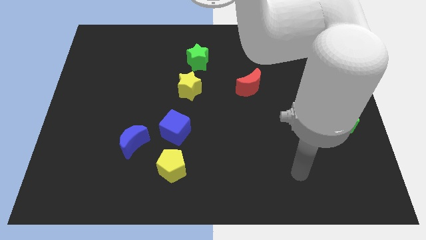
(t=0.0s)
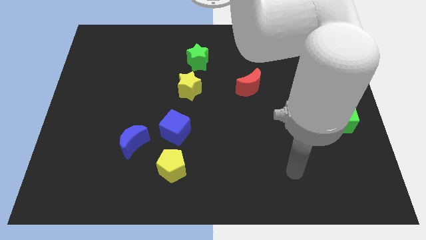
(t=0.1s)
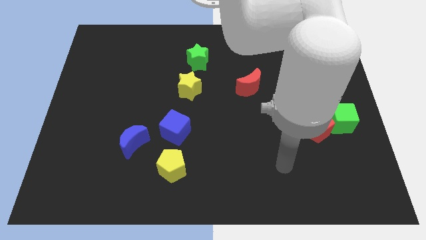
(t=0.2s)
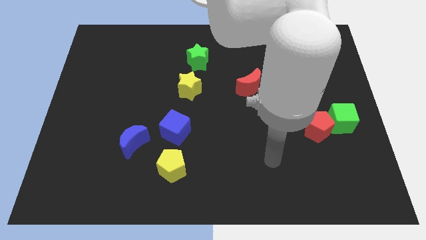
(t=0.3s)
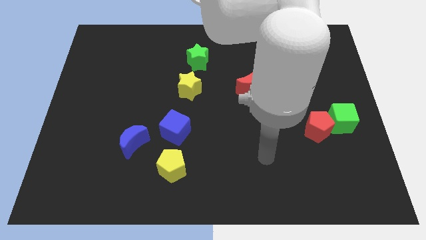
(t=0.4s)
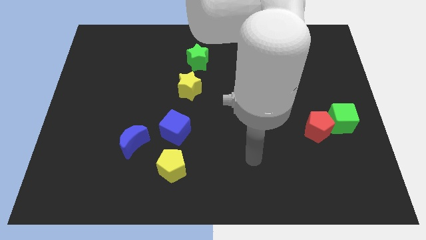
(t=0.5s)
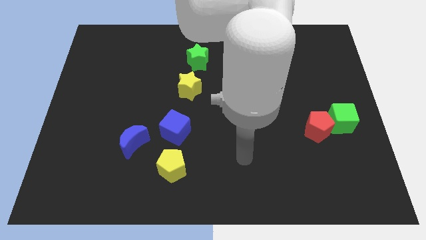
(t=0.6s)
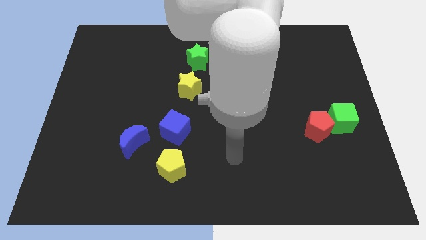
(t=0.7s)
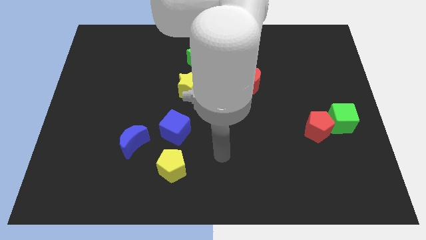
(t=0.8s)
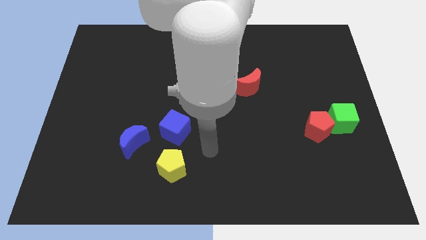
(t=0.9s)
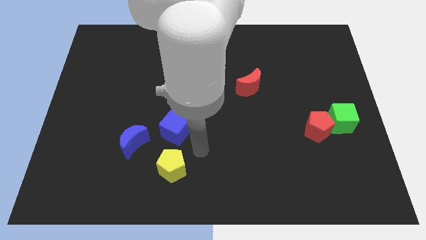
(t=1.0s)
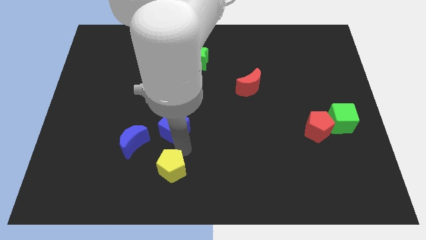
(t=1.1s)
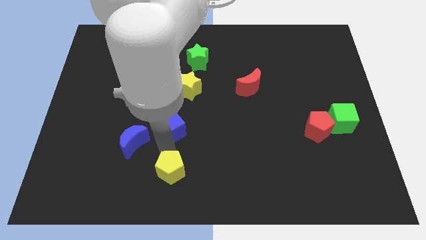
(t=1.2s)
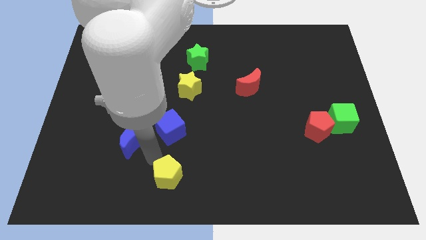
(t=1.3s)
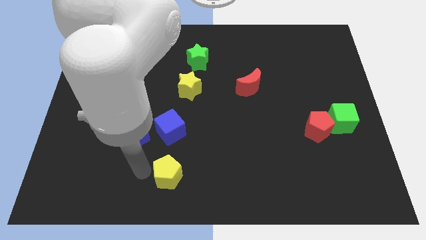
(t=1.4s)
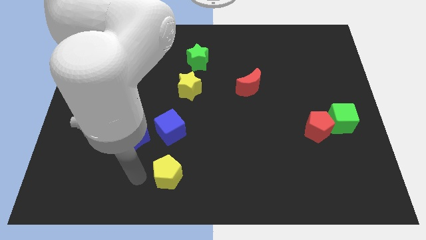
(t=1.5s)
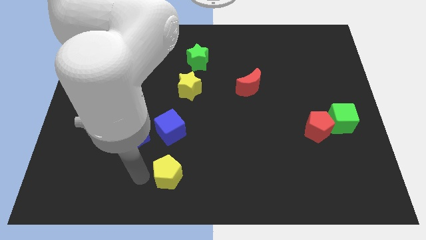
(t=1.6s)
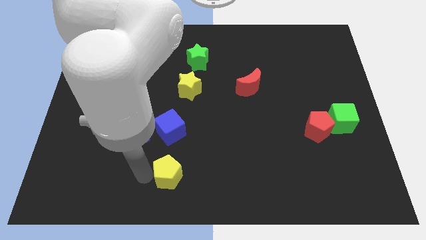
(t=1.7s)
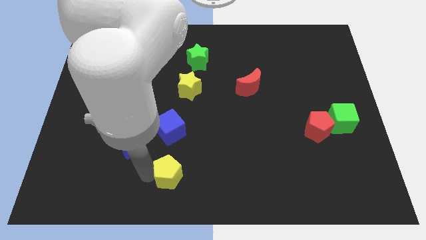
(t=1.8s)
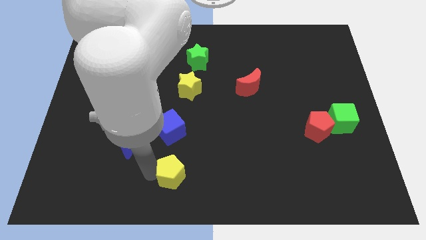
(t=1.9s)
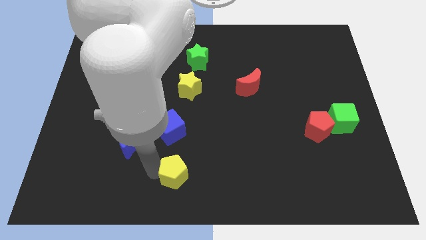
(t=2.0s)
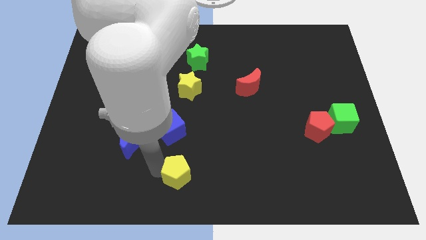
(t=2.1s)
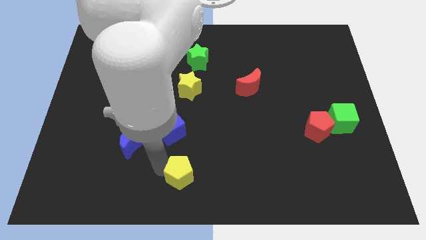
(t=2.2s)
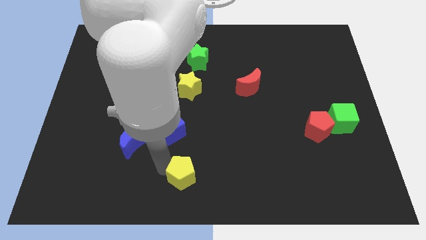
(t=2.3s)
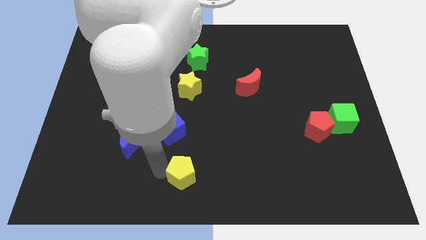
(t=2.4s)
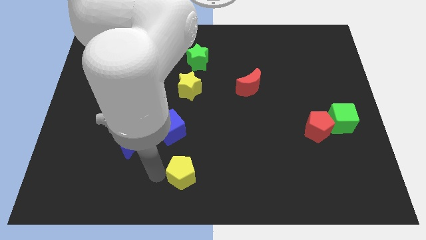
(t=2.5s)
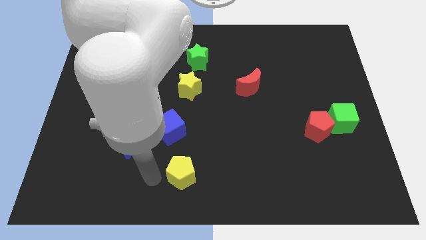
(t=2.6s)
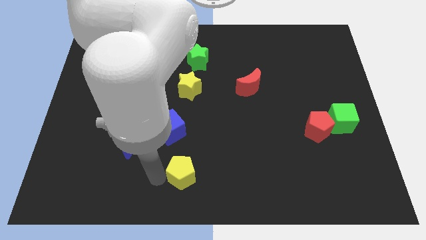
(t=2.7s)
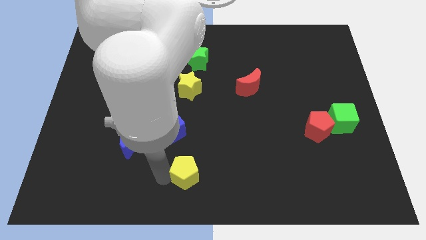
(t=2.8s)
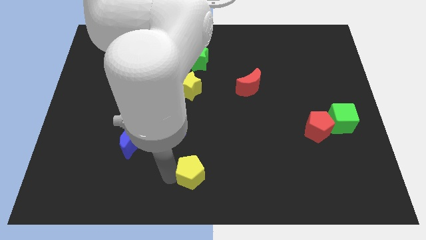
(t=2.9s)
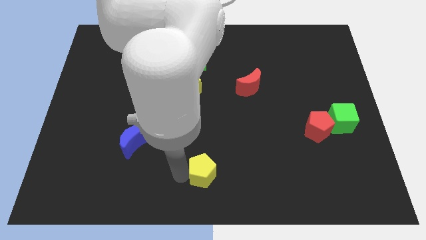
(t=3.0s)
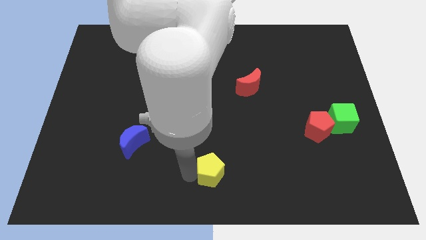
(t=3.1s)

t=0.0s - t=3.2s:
slightly slide the yellow pentagon to the right

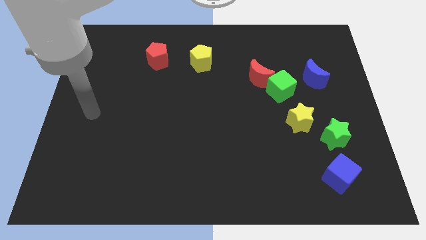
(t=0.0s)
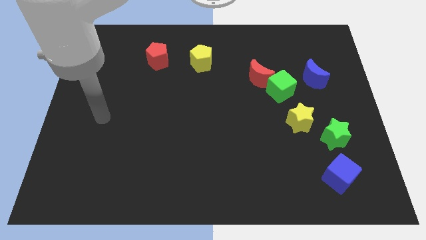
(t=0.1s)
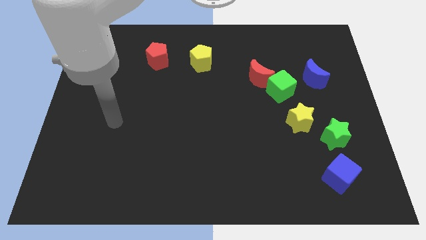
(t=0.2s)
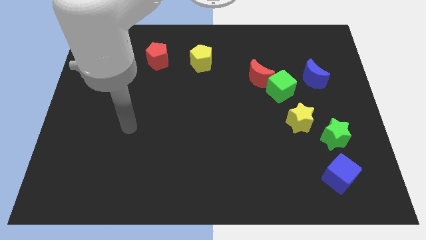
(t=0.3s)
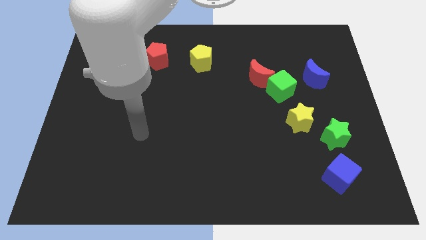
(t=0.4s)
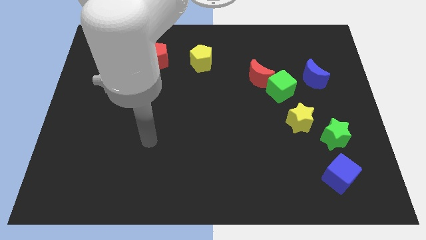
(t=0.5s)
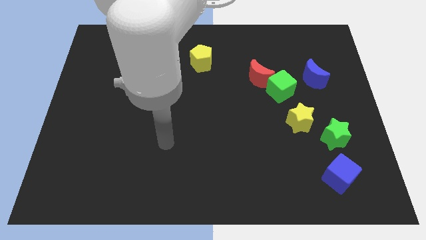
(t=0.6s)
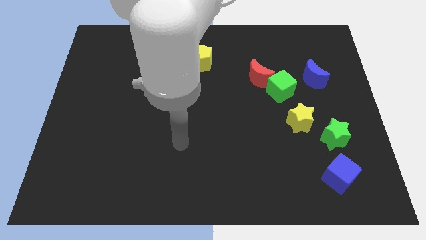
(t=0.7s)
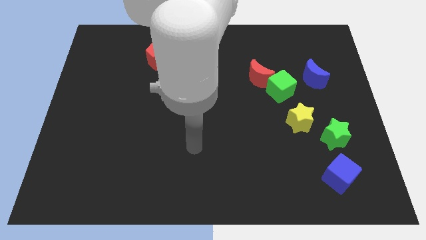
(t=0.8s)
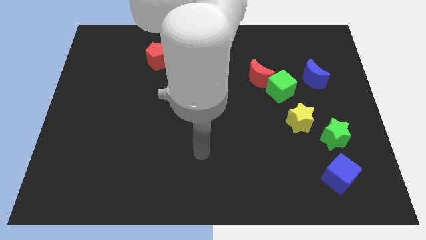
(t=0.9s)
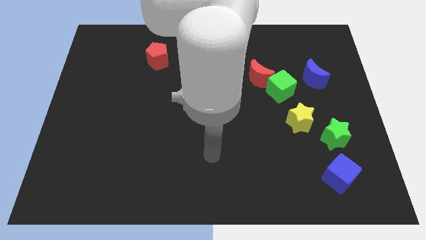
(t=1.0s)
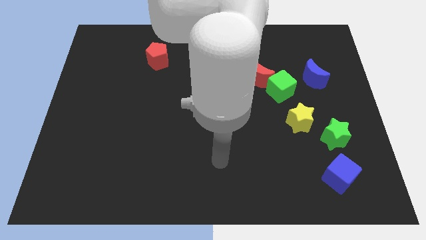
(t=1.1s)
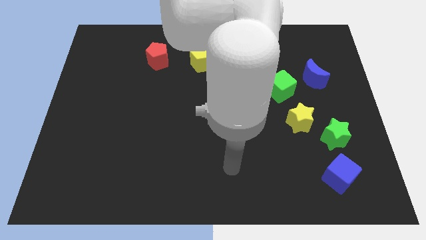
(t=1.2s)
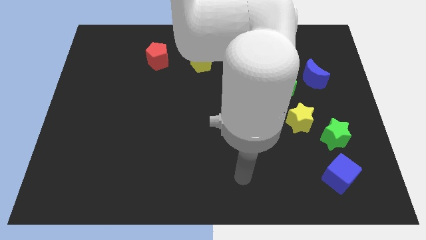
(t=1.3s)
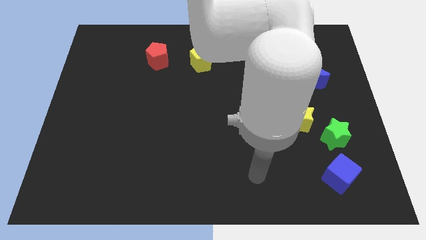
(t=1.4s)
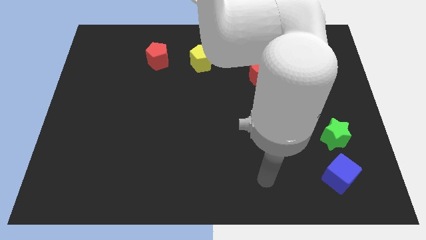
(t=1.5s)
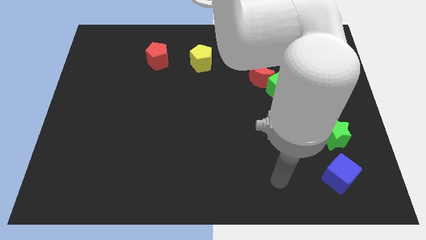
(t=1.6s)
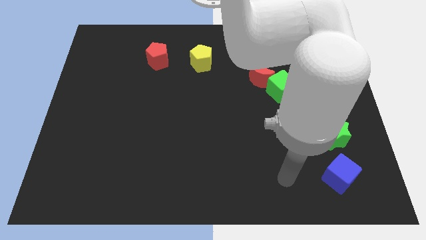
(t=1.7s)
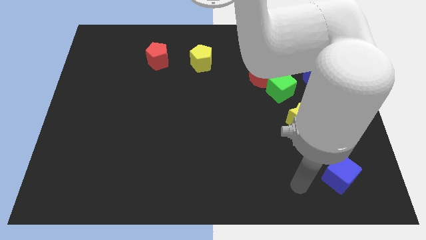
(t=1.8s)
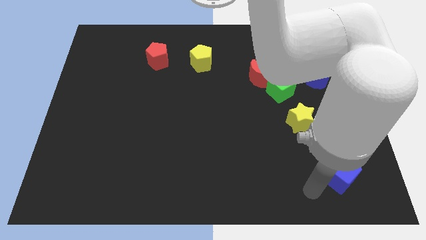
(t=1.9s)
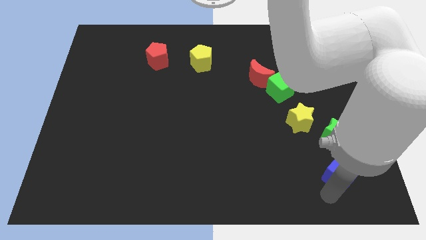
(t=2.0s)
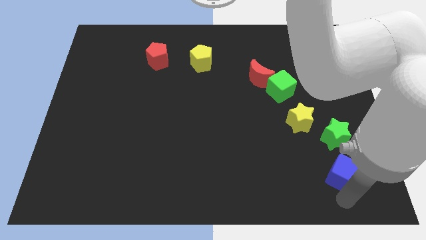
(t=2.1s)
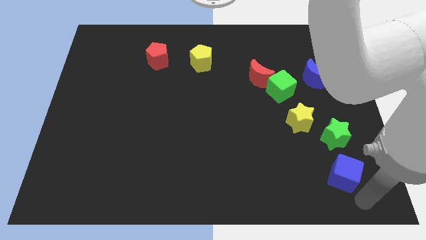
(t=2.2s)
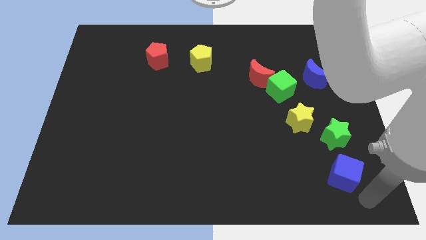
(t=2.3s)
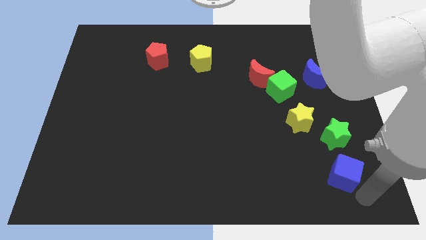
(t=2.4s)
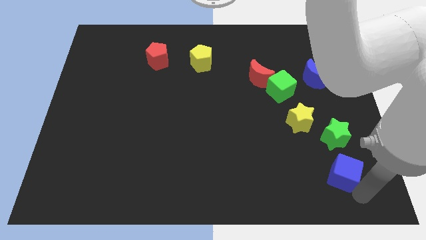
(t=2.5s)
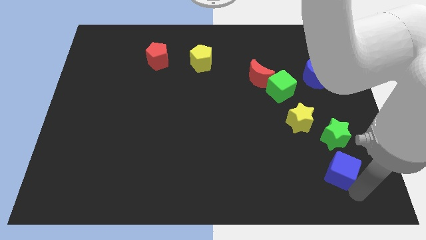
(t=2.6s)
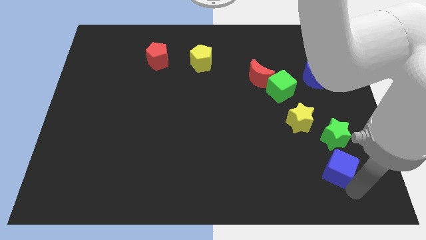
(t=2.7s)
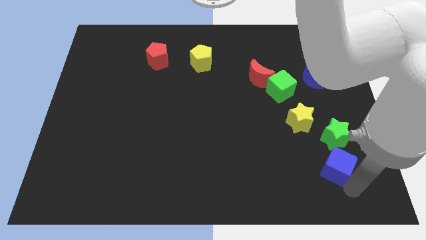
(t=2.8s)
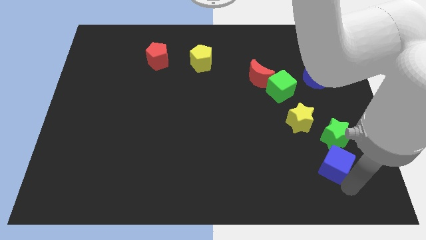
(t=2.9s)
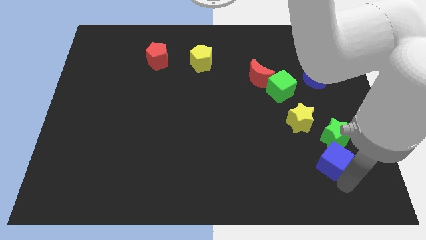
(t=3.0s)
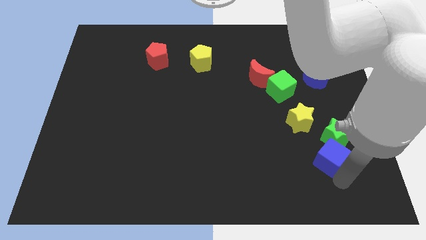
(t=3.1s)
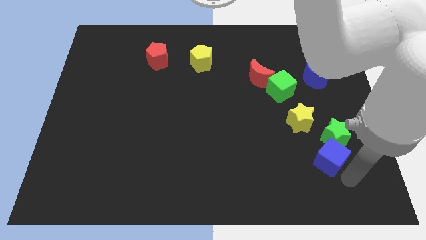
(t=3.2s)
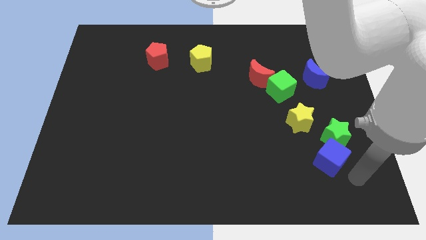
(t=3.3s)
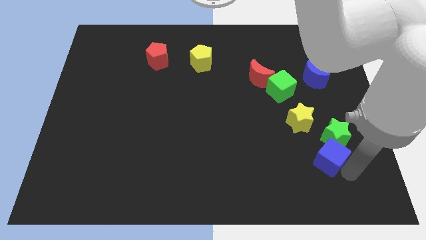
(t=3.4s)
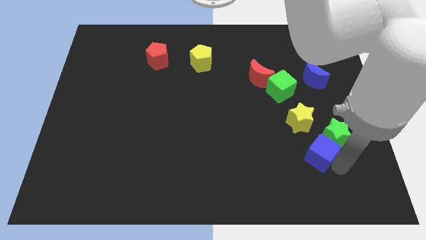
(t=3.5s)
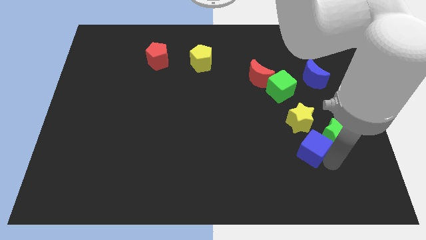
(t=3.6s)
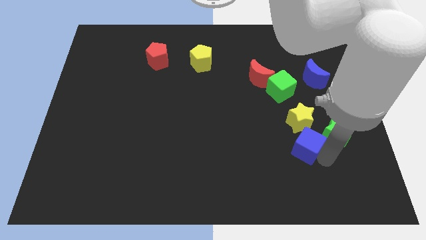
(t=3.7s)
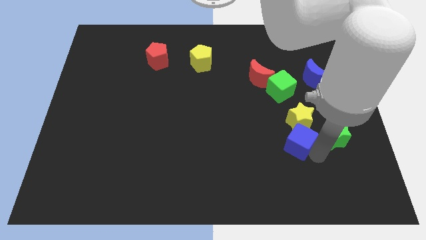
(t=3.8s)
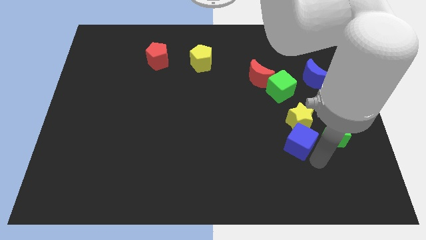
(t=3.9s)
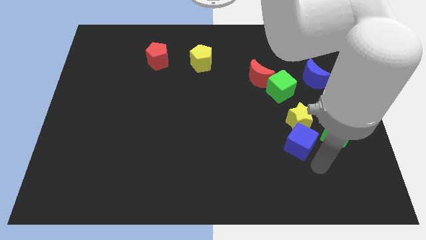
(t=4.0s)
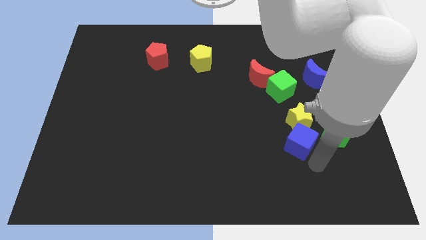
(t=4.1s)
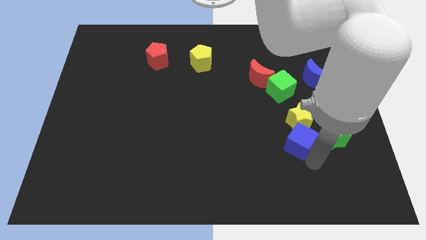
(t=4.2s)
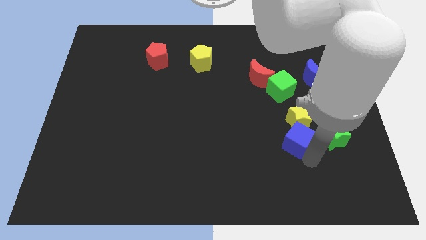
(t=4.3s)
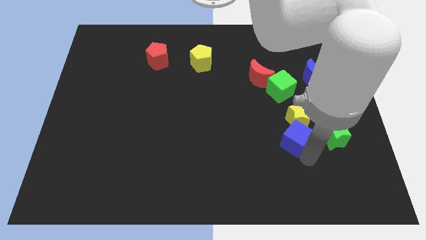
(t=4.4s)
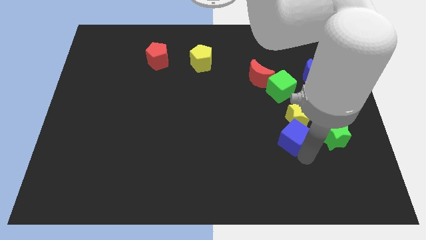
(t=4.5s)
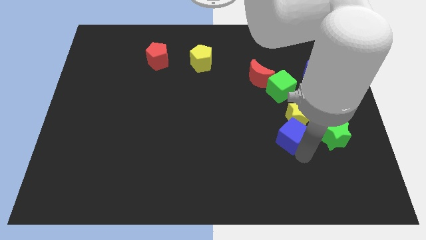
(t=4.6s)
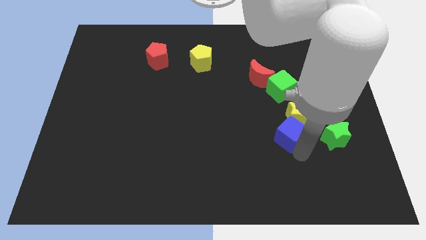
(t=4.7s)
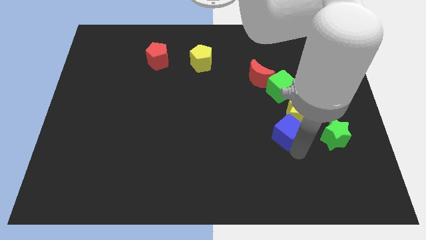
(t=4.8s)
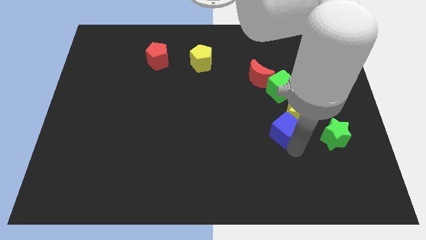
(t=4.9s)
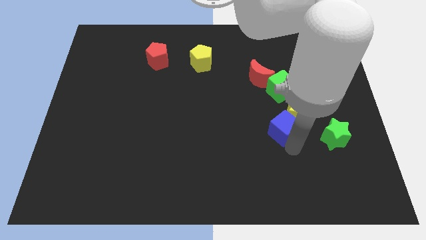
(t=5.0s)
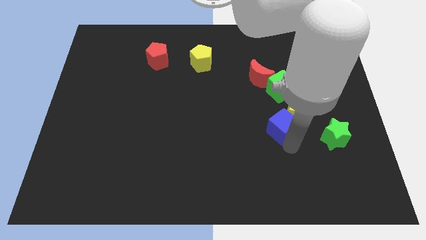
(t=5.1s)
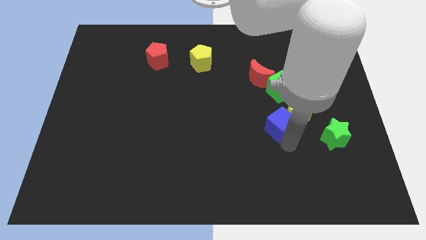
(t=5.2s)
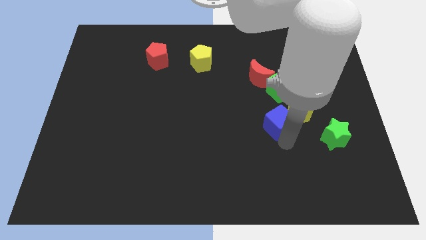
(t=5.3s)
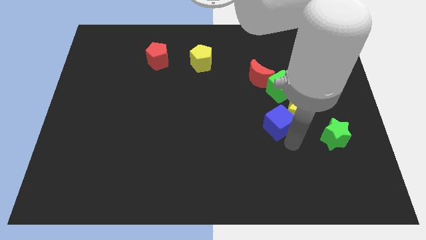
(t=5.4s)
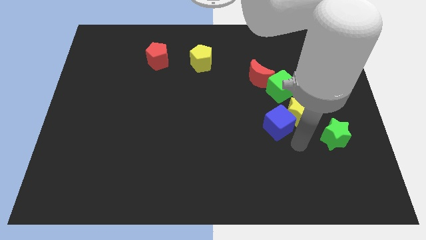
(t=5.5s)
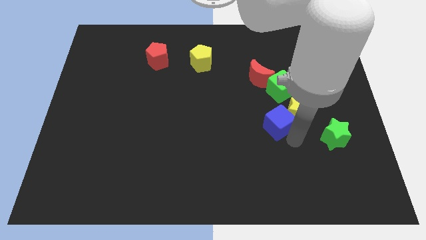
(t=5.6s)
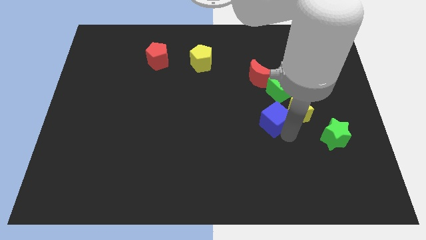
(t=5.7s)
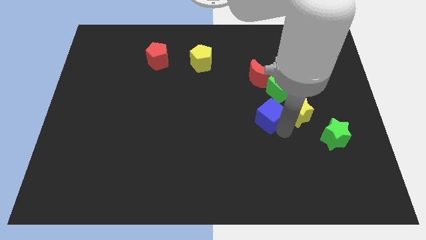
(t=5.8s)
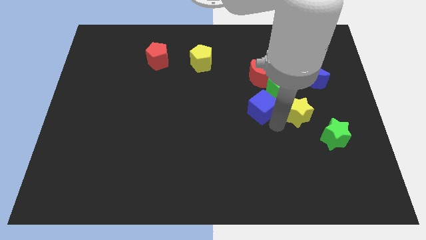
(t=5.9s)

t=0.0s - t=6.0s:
push the blue cube upwards and to the left
